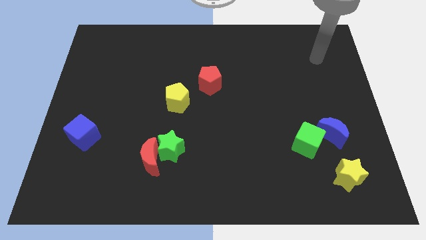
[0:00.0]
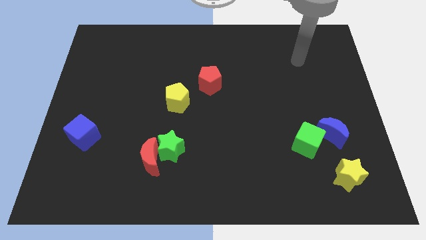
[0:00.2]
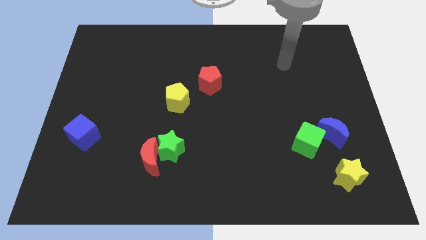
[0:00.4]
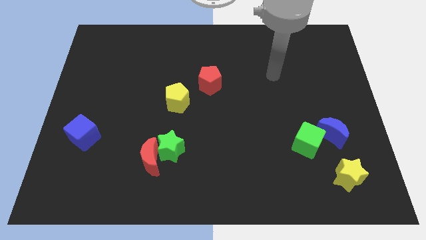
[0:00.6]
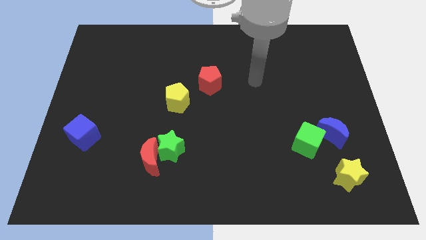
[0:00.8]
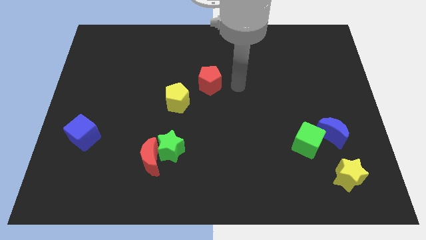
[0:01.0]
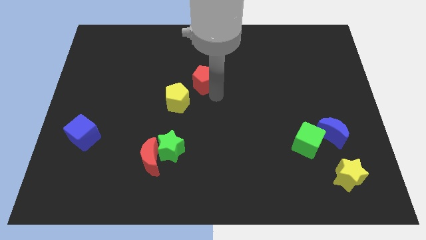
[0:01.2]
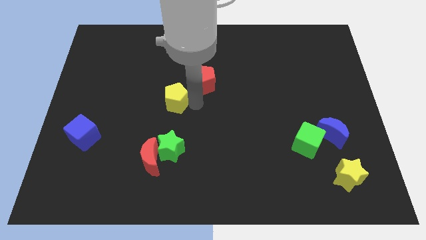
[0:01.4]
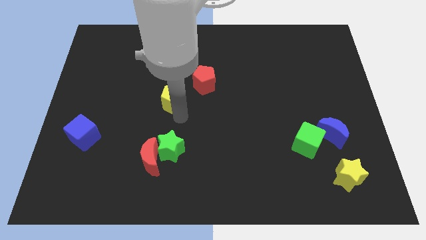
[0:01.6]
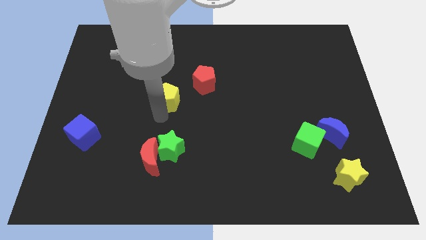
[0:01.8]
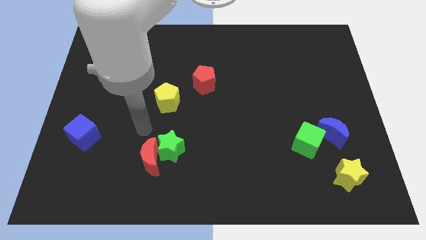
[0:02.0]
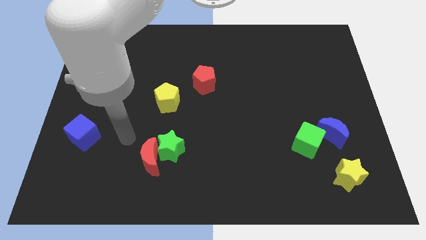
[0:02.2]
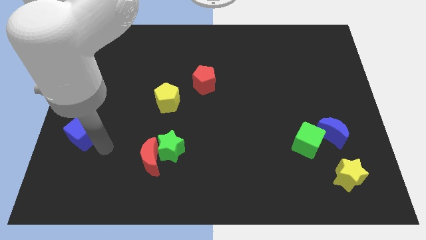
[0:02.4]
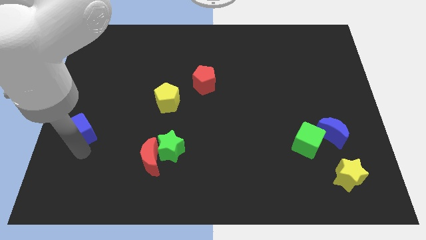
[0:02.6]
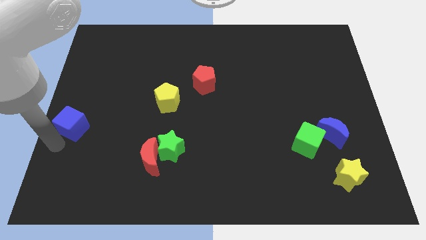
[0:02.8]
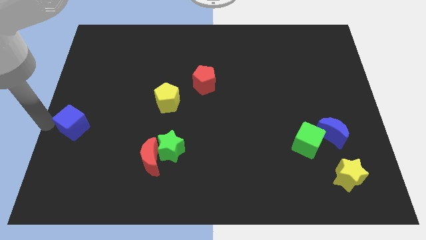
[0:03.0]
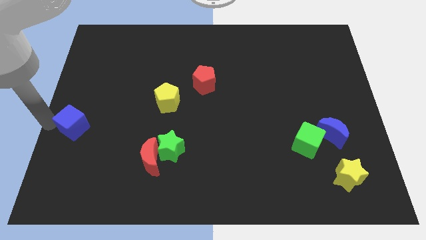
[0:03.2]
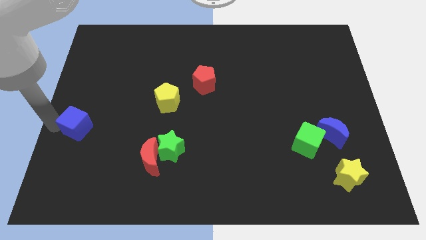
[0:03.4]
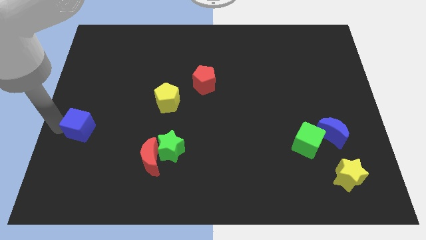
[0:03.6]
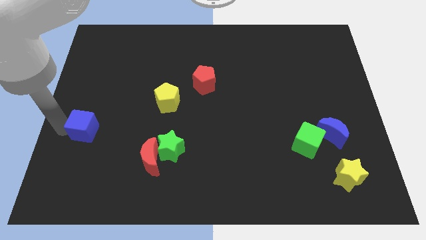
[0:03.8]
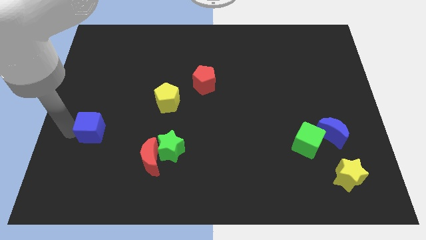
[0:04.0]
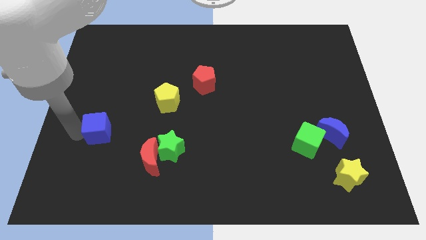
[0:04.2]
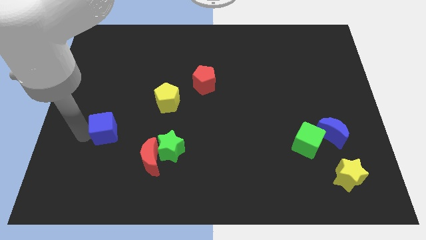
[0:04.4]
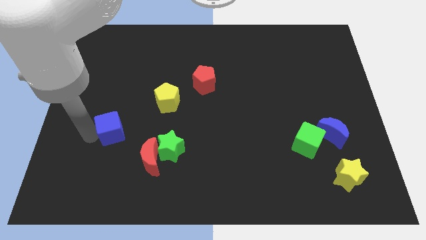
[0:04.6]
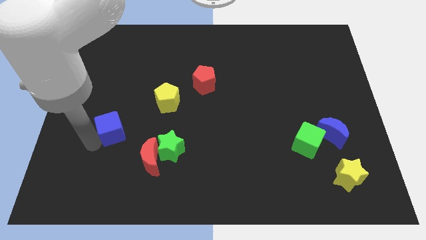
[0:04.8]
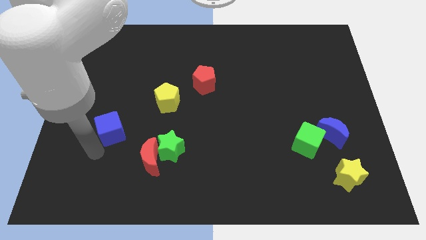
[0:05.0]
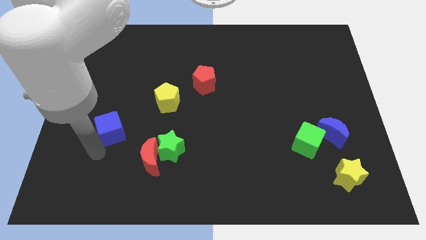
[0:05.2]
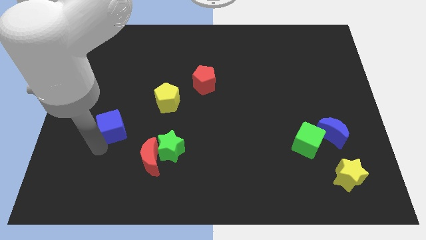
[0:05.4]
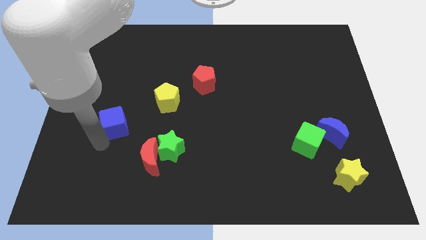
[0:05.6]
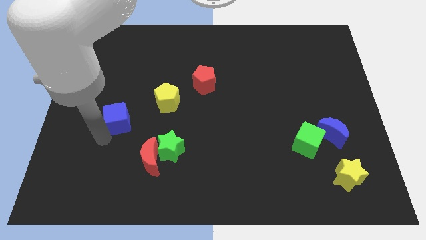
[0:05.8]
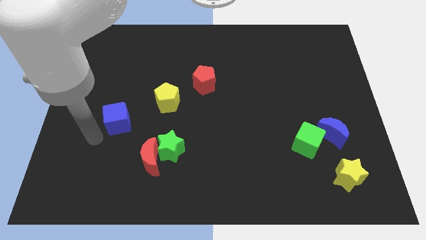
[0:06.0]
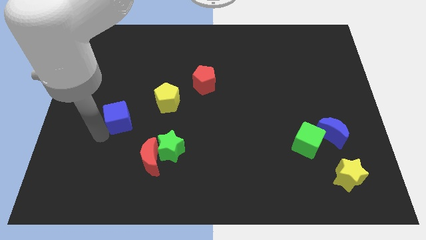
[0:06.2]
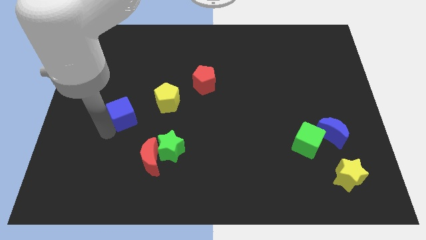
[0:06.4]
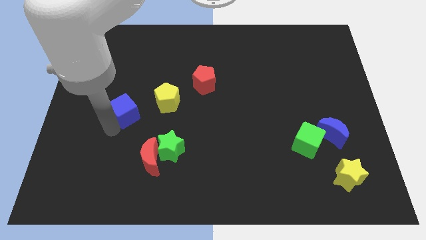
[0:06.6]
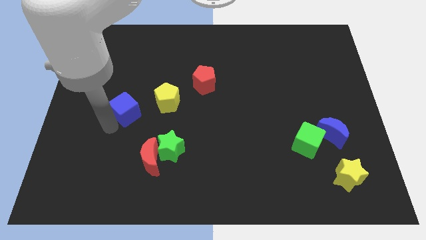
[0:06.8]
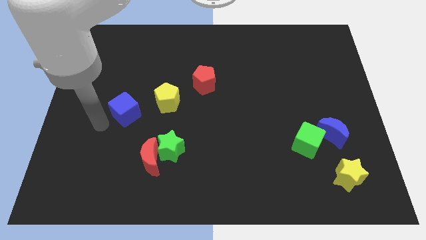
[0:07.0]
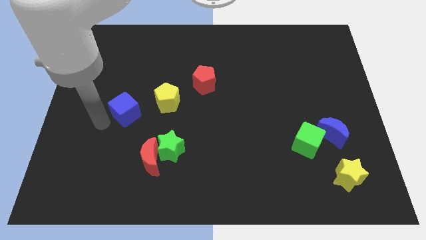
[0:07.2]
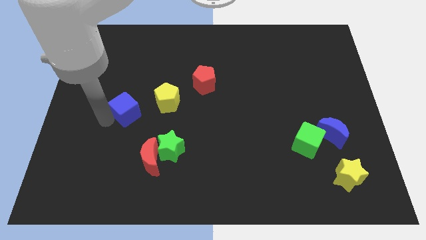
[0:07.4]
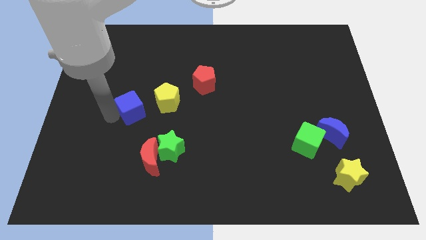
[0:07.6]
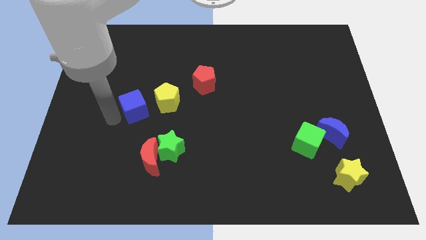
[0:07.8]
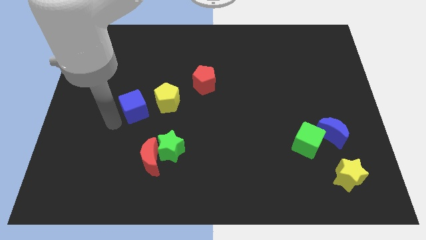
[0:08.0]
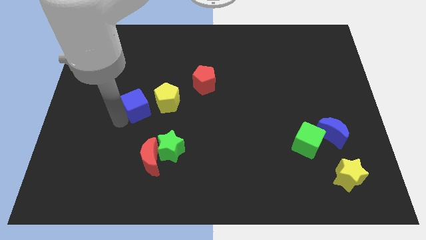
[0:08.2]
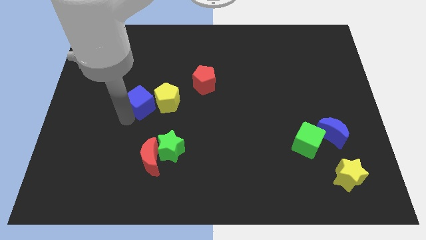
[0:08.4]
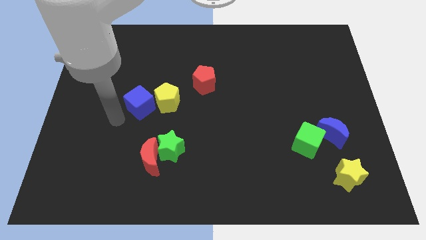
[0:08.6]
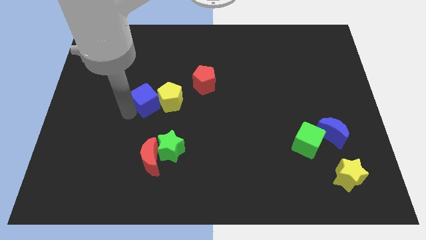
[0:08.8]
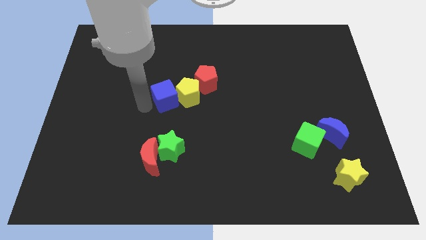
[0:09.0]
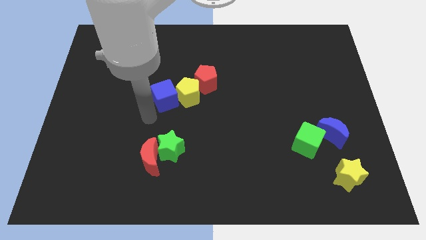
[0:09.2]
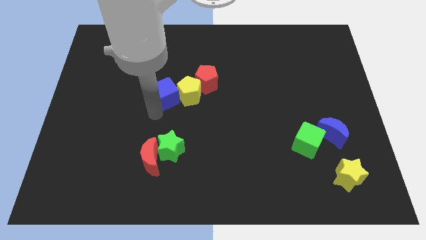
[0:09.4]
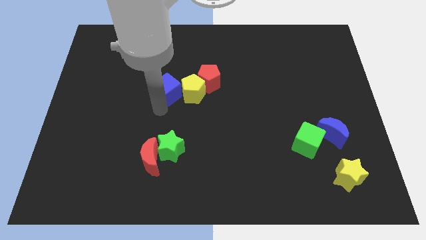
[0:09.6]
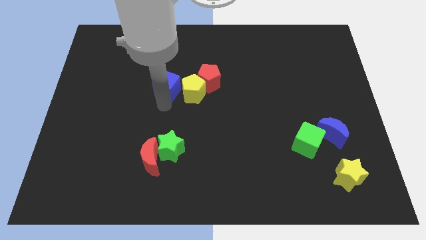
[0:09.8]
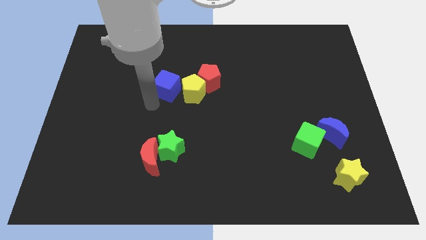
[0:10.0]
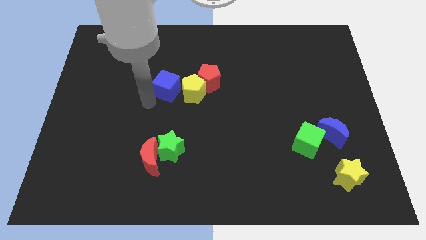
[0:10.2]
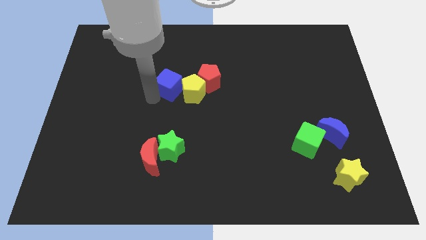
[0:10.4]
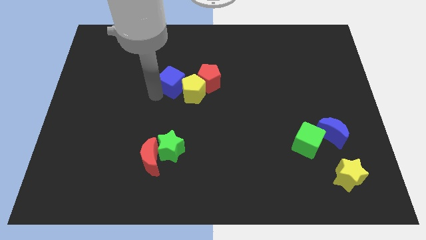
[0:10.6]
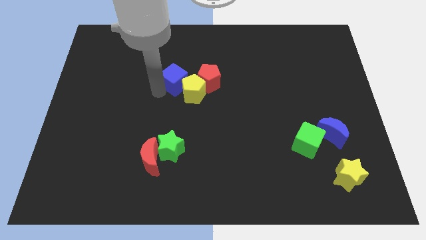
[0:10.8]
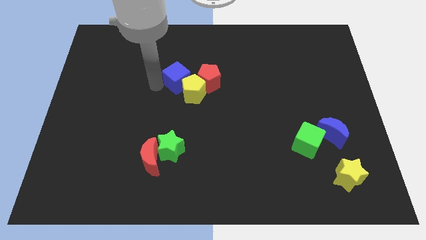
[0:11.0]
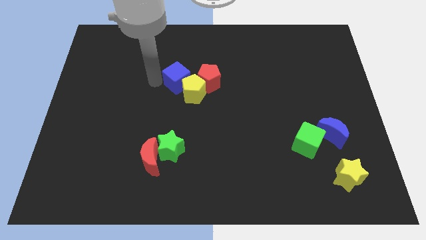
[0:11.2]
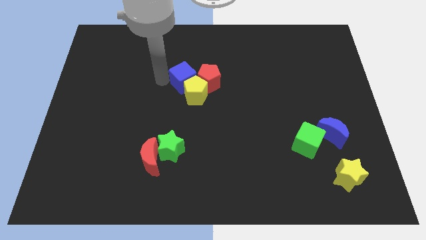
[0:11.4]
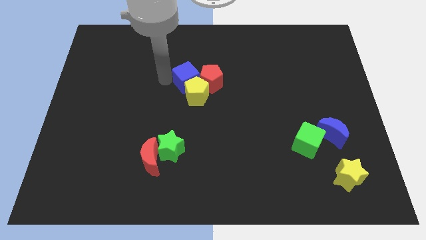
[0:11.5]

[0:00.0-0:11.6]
put the blue cube to the red pentagon

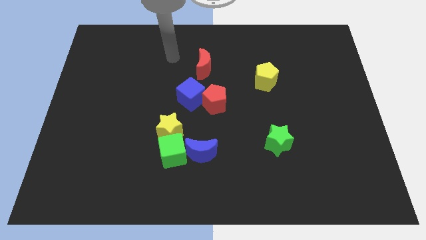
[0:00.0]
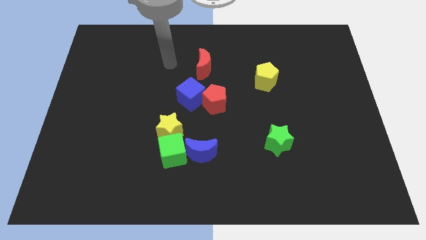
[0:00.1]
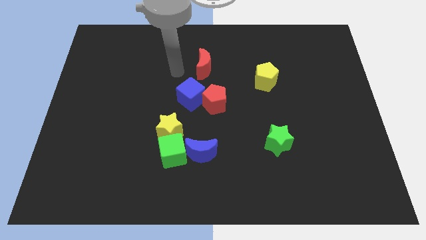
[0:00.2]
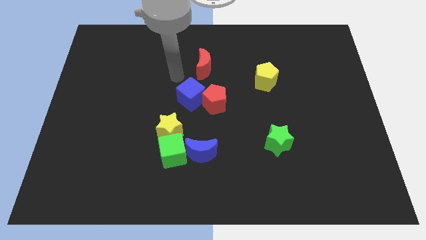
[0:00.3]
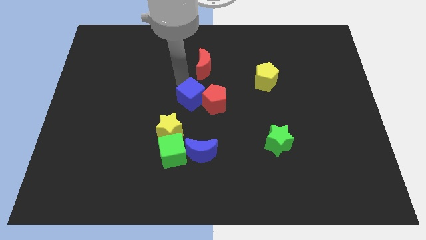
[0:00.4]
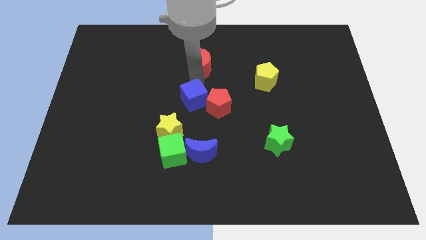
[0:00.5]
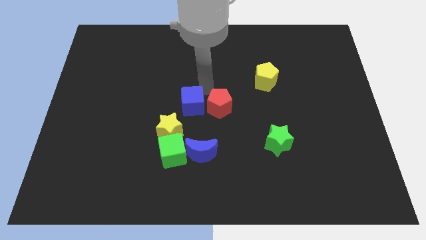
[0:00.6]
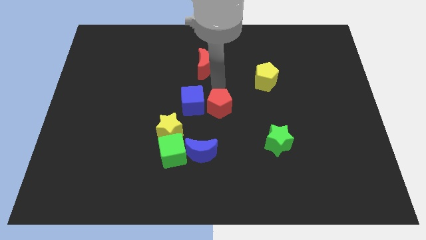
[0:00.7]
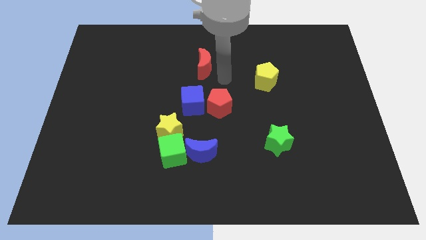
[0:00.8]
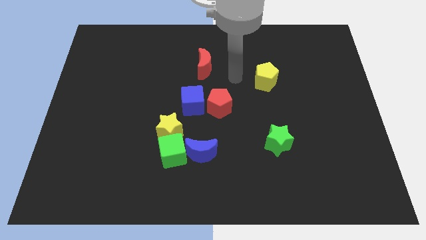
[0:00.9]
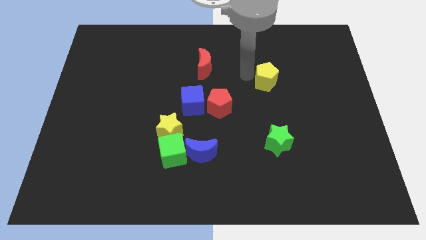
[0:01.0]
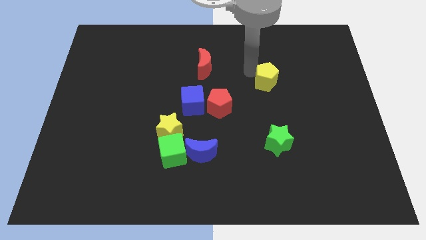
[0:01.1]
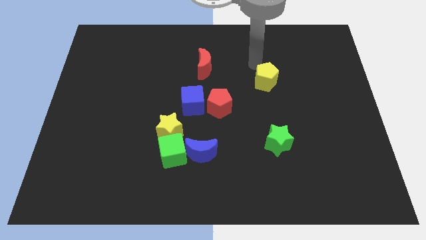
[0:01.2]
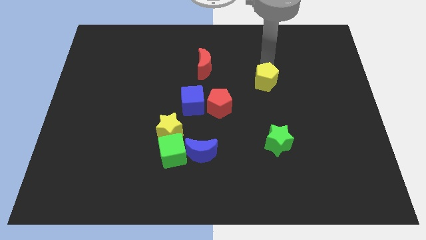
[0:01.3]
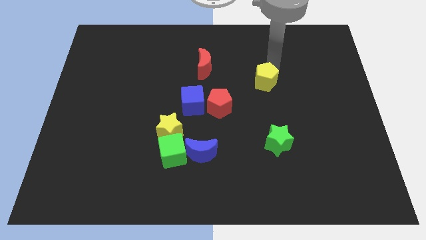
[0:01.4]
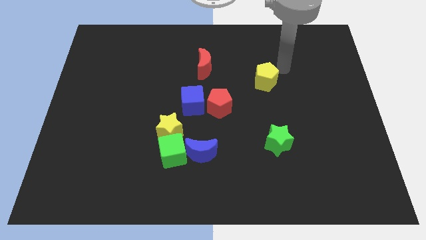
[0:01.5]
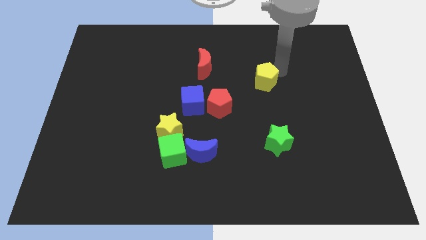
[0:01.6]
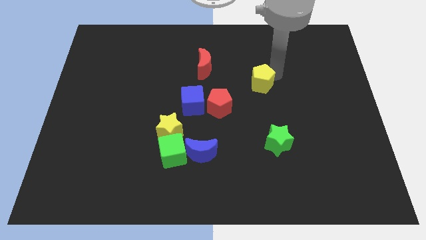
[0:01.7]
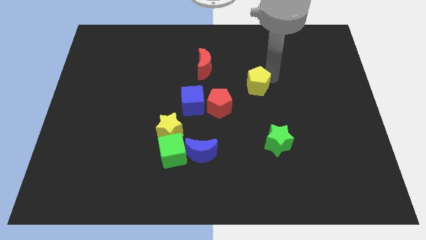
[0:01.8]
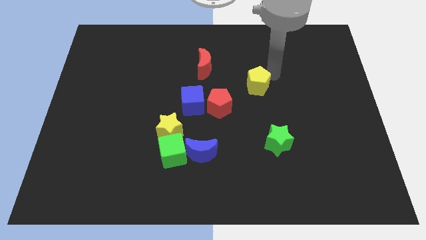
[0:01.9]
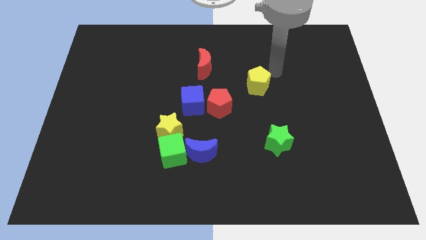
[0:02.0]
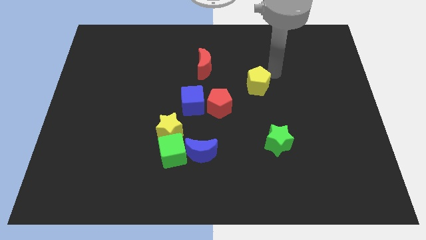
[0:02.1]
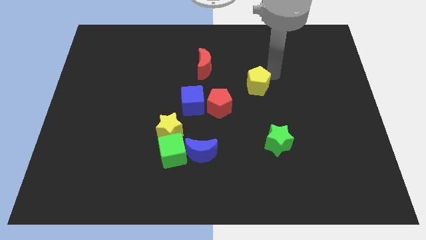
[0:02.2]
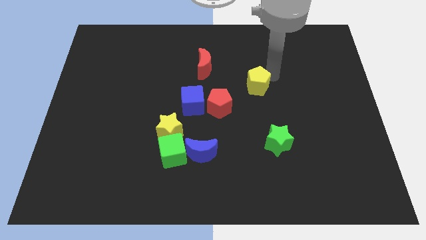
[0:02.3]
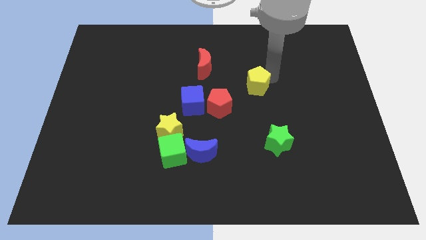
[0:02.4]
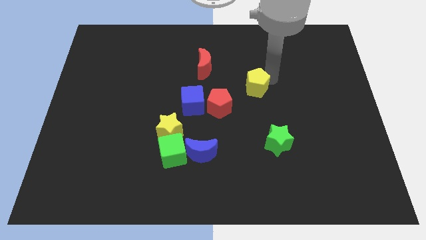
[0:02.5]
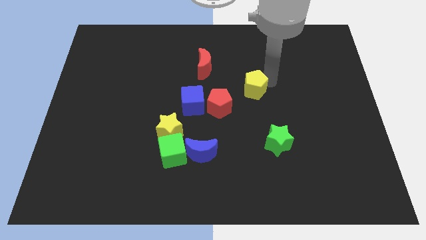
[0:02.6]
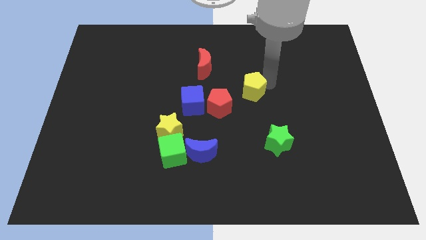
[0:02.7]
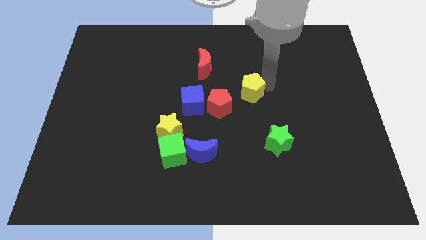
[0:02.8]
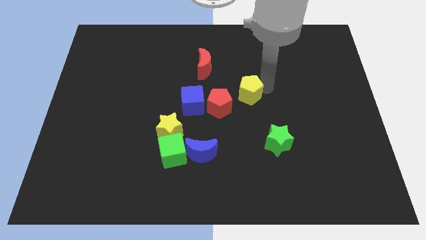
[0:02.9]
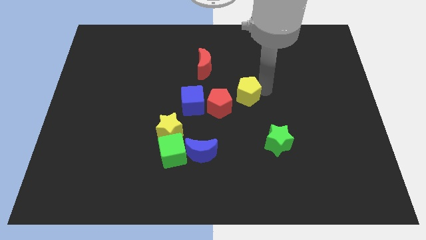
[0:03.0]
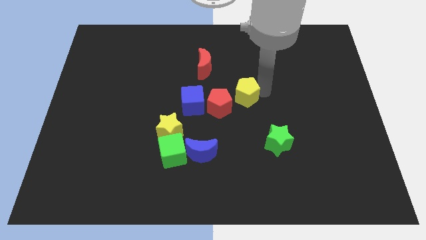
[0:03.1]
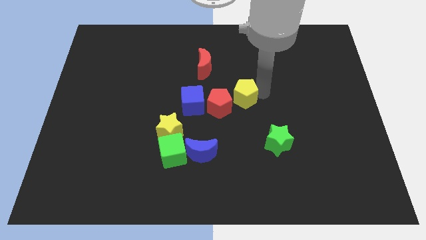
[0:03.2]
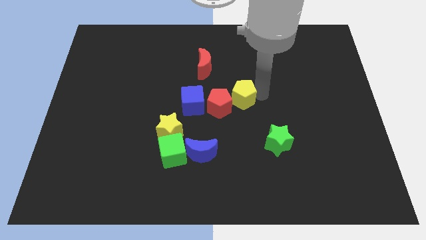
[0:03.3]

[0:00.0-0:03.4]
move the yellow pentagon towards the red pentagon
